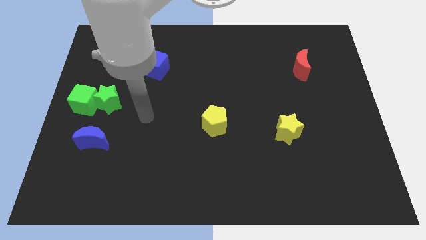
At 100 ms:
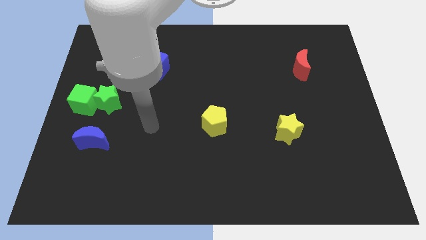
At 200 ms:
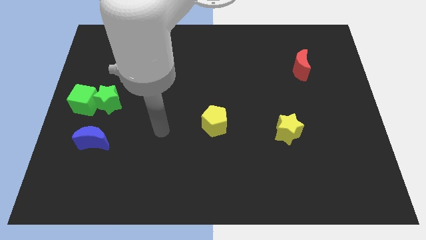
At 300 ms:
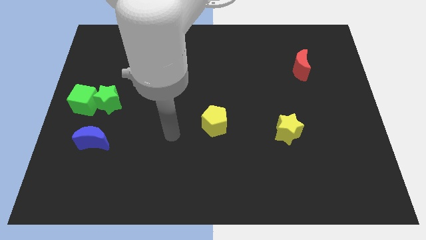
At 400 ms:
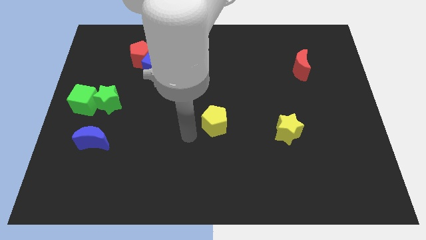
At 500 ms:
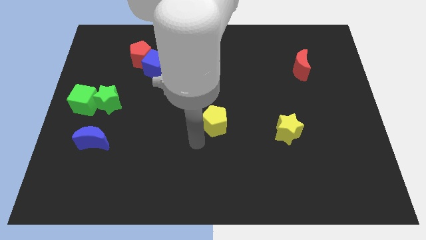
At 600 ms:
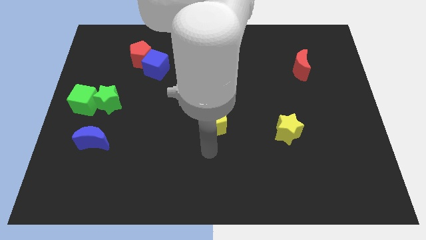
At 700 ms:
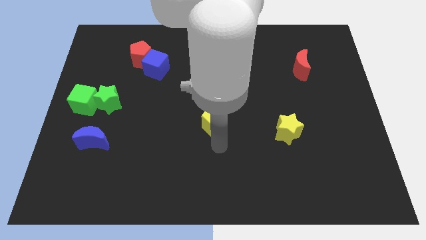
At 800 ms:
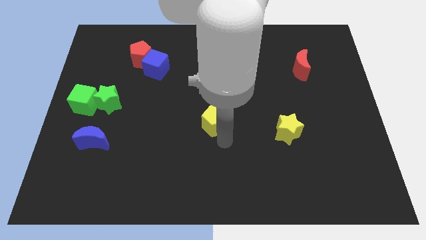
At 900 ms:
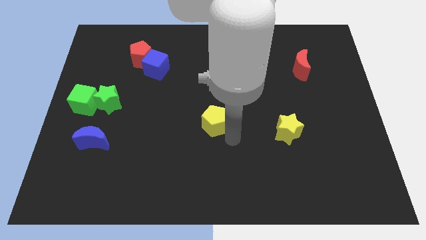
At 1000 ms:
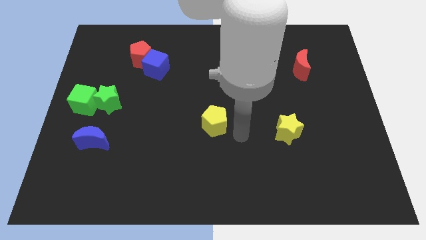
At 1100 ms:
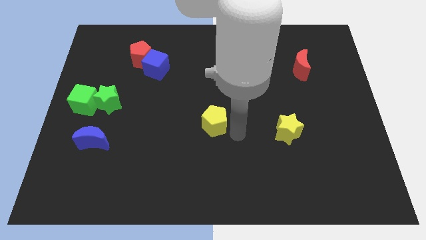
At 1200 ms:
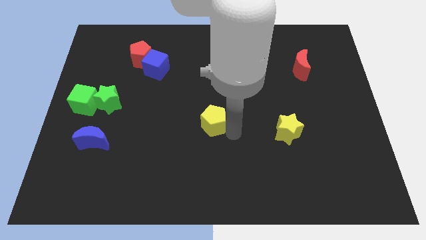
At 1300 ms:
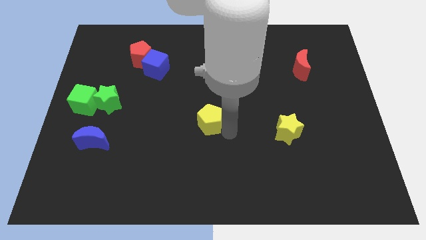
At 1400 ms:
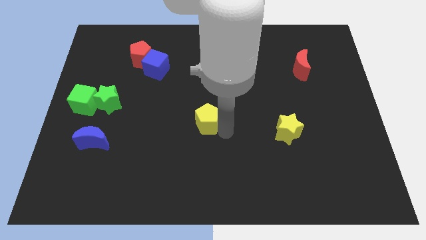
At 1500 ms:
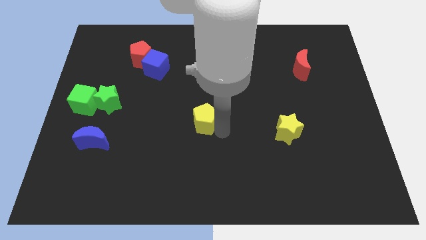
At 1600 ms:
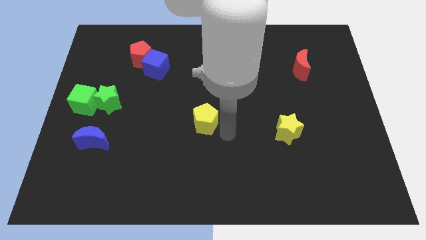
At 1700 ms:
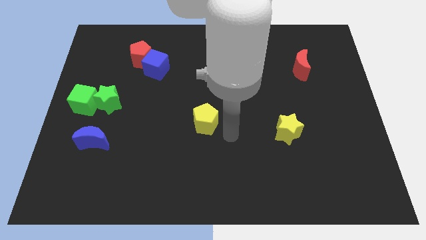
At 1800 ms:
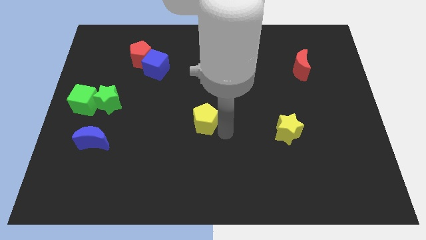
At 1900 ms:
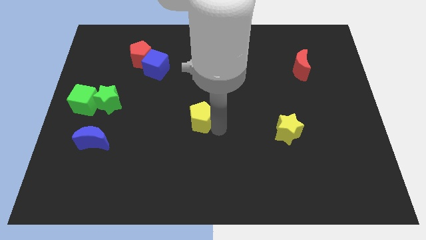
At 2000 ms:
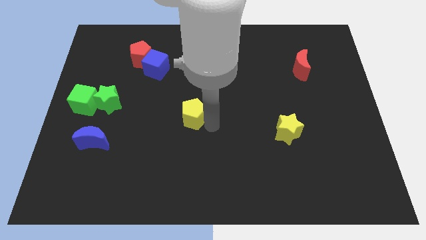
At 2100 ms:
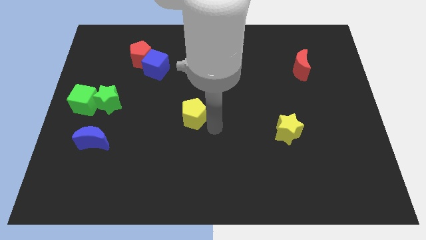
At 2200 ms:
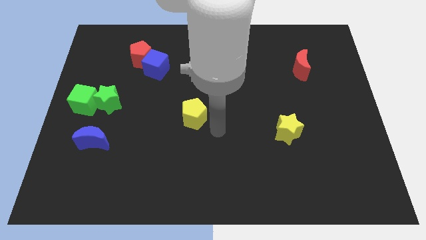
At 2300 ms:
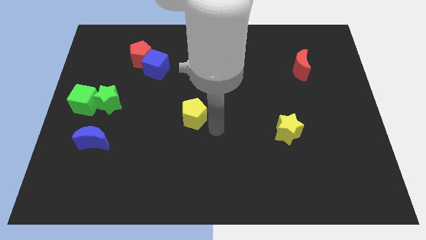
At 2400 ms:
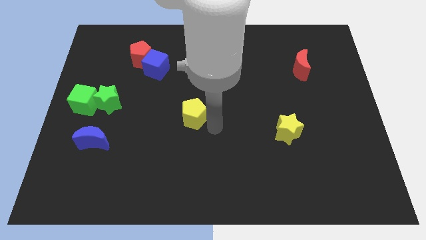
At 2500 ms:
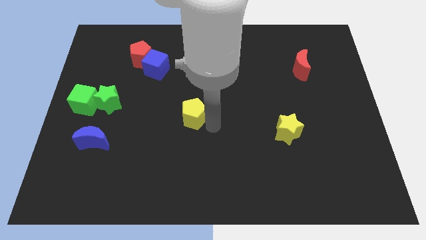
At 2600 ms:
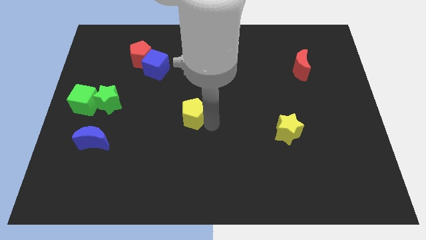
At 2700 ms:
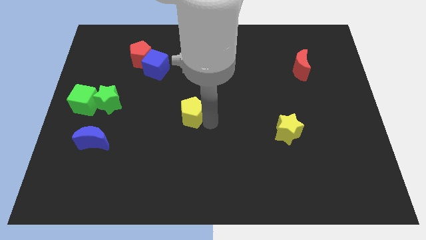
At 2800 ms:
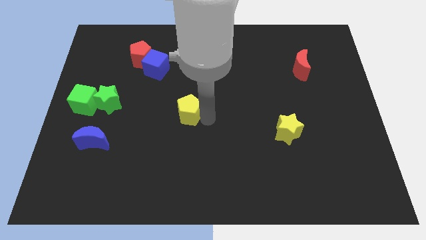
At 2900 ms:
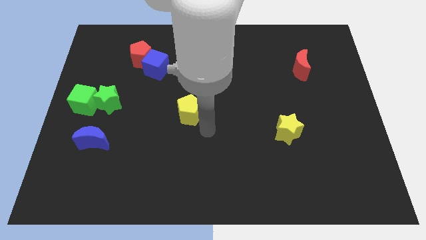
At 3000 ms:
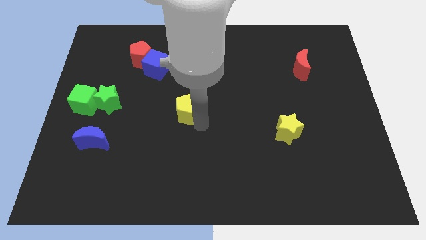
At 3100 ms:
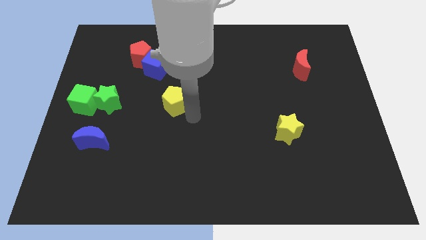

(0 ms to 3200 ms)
slide the yellow pentagon slightly upwards and left diagonally

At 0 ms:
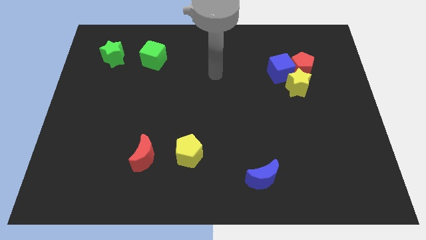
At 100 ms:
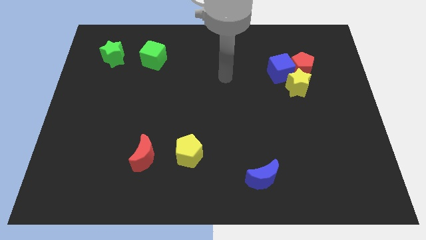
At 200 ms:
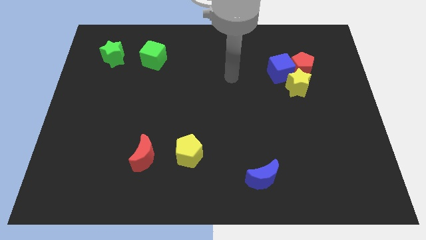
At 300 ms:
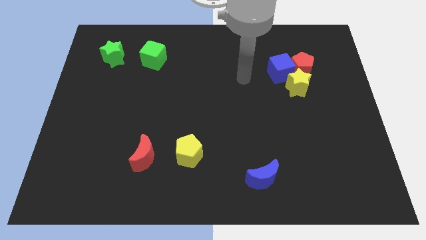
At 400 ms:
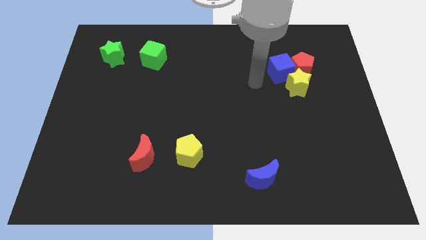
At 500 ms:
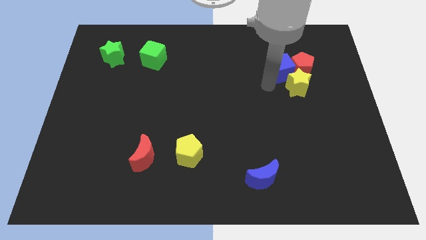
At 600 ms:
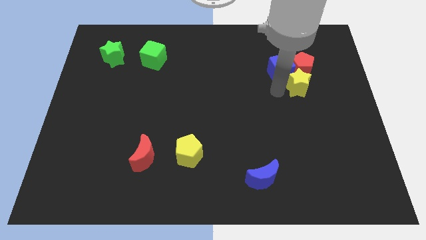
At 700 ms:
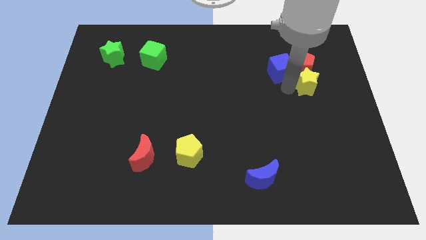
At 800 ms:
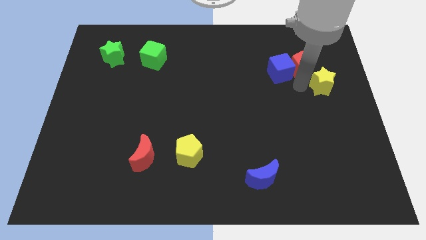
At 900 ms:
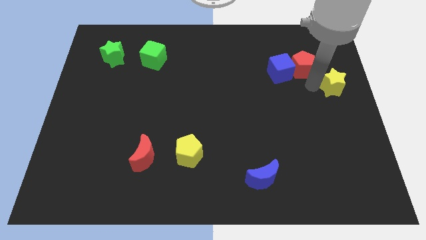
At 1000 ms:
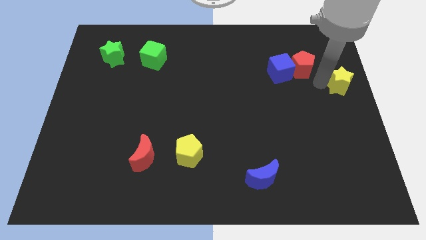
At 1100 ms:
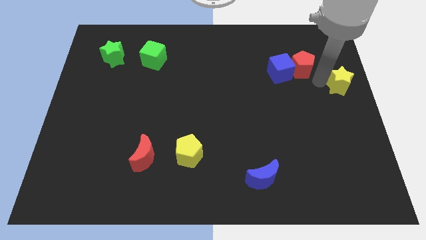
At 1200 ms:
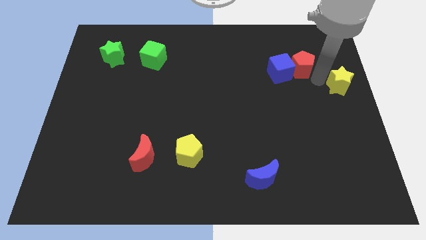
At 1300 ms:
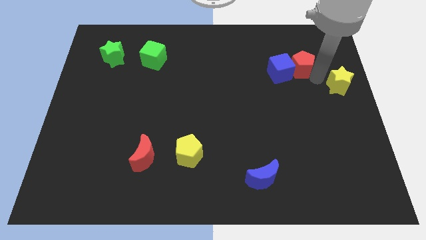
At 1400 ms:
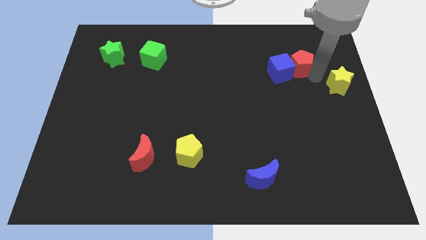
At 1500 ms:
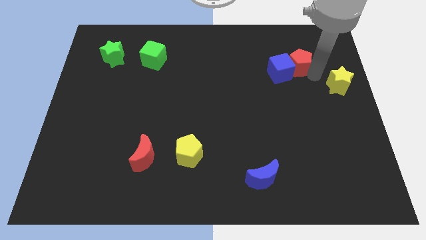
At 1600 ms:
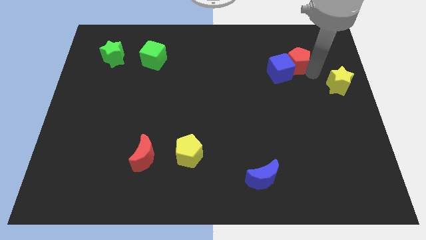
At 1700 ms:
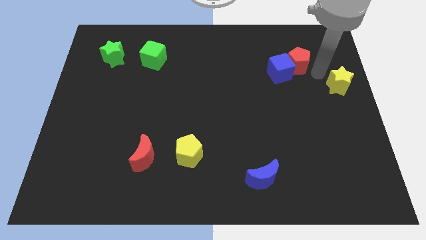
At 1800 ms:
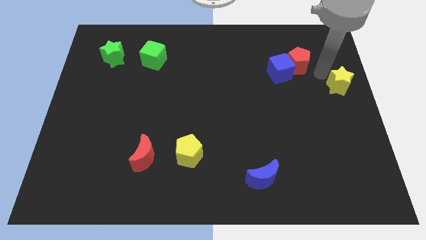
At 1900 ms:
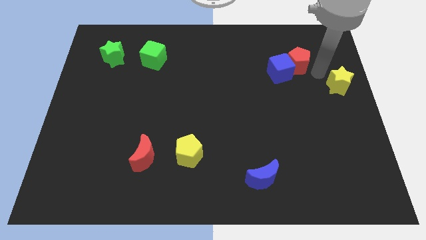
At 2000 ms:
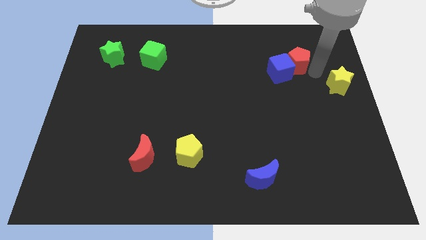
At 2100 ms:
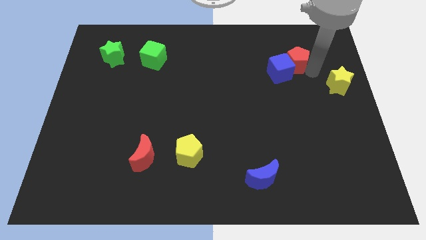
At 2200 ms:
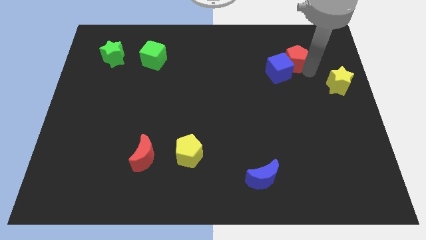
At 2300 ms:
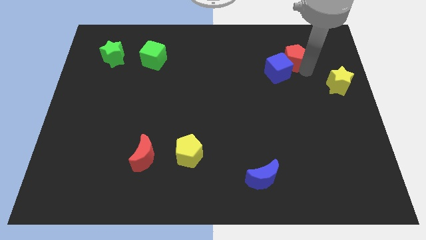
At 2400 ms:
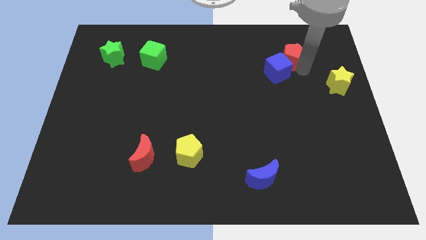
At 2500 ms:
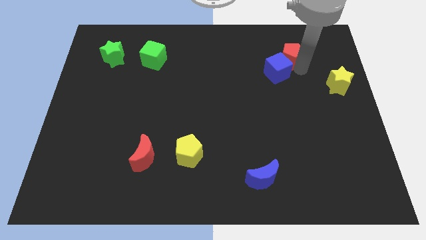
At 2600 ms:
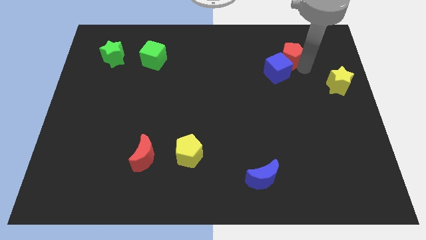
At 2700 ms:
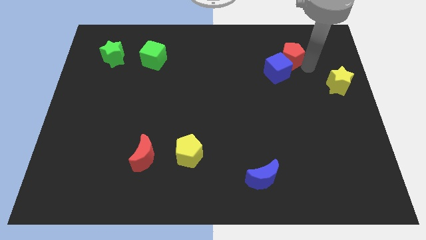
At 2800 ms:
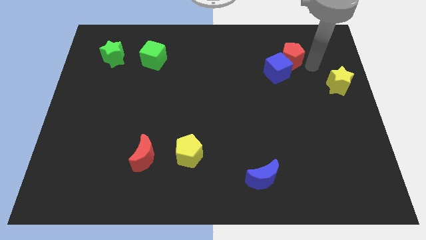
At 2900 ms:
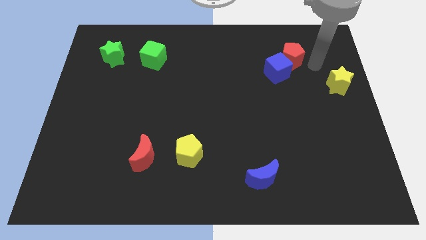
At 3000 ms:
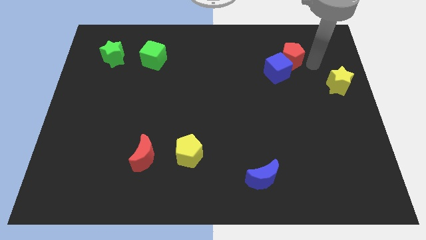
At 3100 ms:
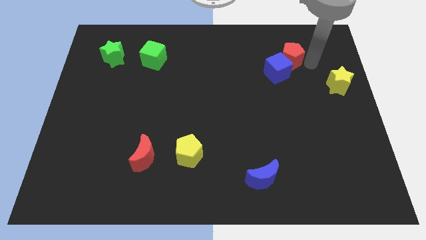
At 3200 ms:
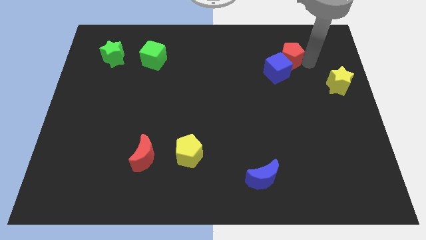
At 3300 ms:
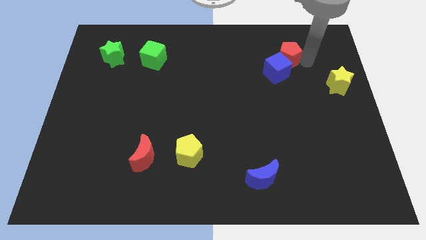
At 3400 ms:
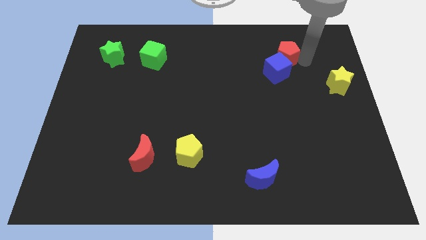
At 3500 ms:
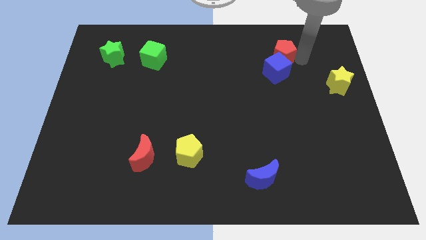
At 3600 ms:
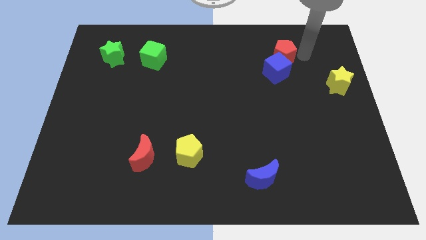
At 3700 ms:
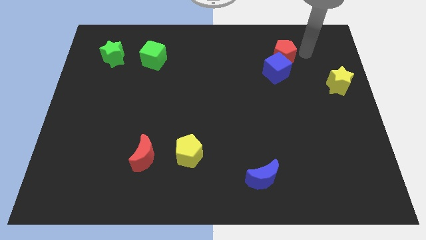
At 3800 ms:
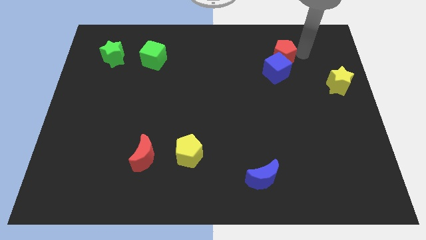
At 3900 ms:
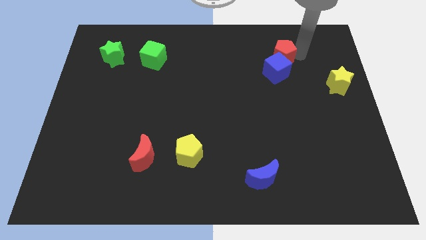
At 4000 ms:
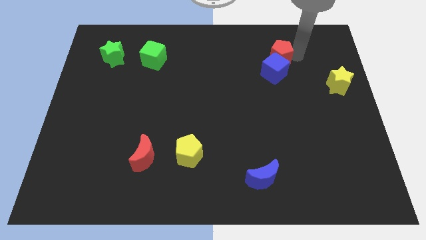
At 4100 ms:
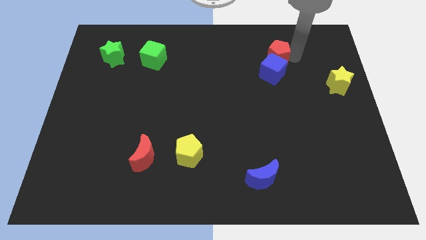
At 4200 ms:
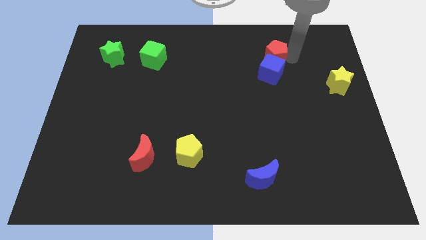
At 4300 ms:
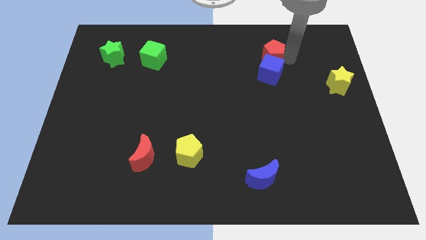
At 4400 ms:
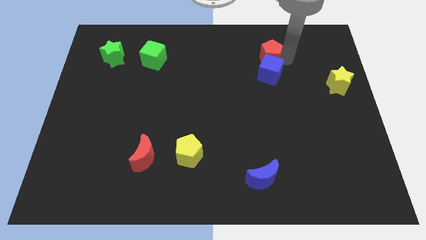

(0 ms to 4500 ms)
push the red pentagon left somewhat

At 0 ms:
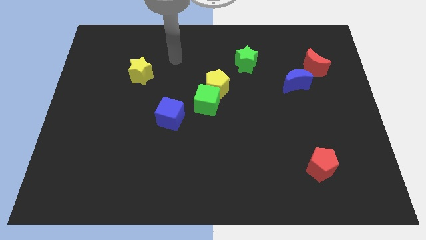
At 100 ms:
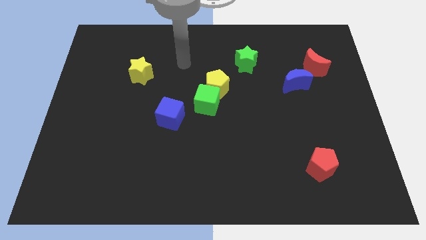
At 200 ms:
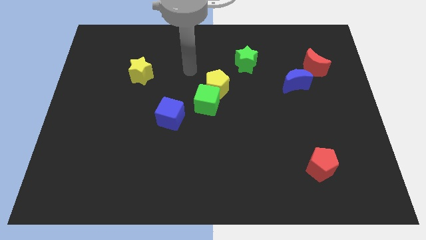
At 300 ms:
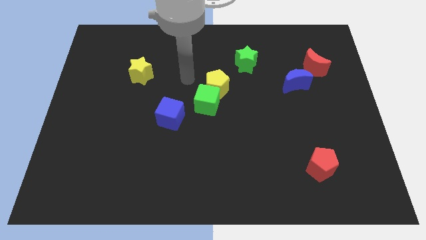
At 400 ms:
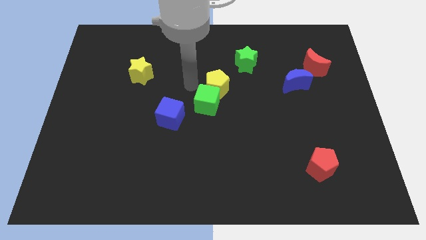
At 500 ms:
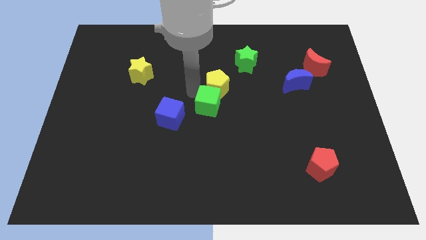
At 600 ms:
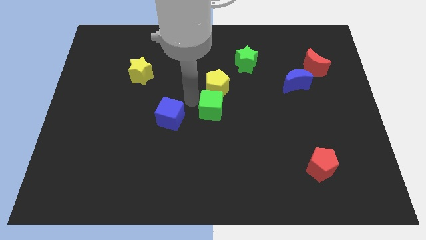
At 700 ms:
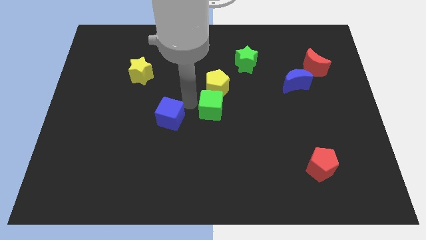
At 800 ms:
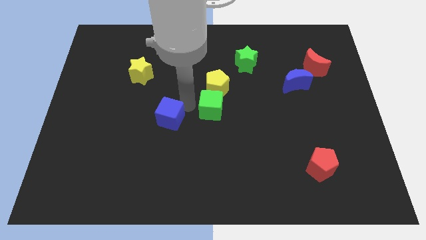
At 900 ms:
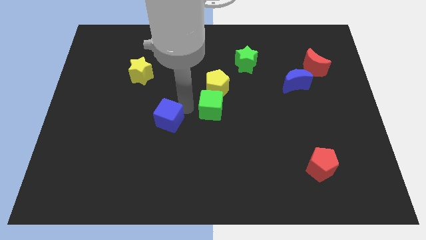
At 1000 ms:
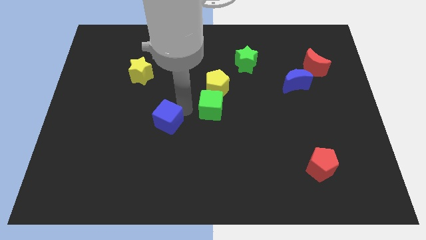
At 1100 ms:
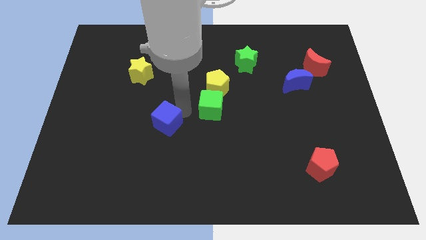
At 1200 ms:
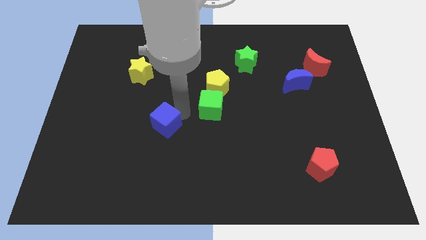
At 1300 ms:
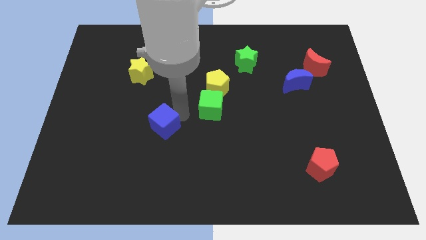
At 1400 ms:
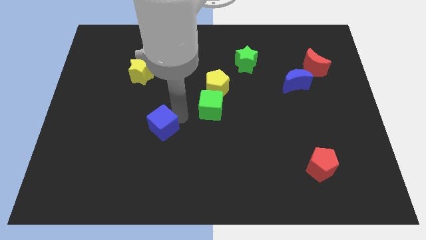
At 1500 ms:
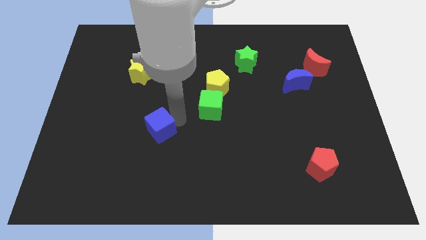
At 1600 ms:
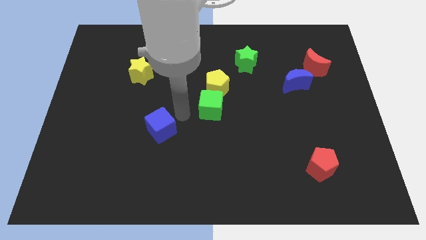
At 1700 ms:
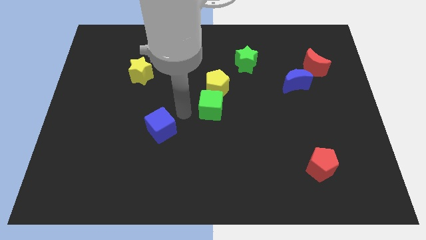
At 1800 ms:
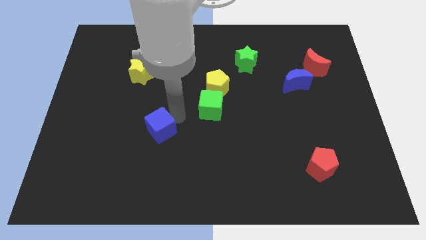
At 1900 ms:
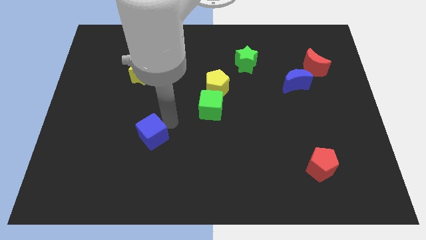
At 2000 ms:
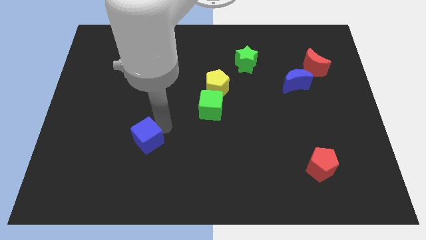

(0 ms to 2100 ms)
slightly move the blue cube downwards and to the left
